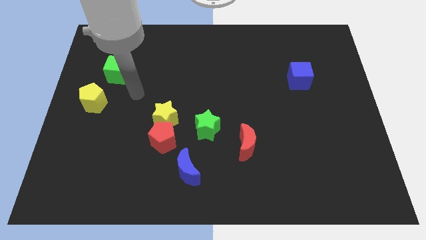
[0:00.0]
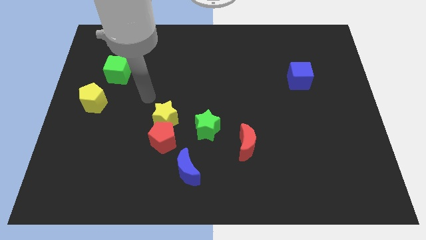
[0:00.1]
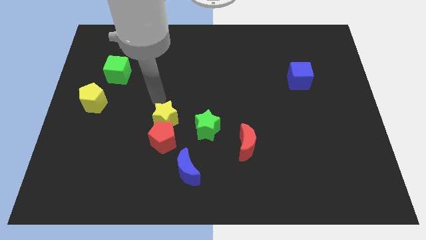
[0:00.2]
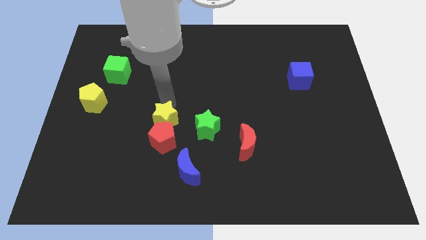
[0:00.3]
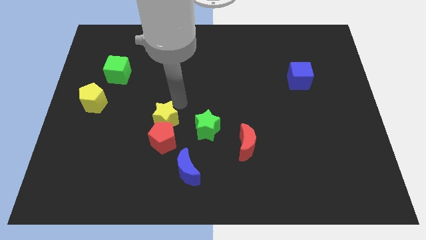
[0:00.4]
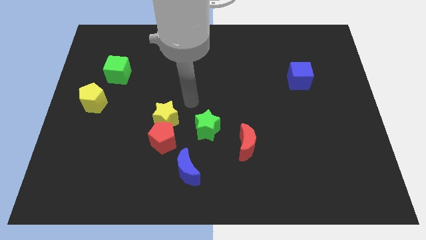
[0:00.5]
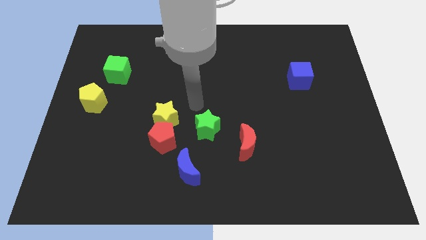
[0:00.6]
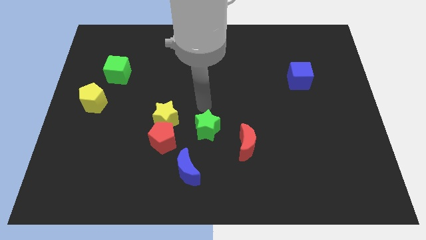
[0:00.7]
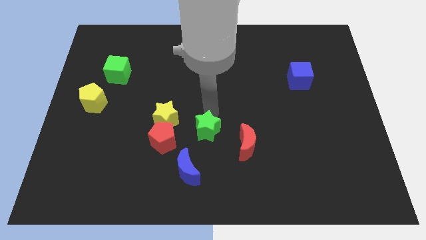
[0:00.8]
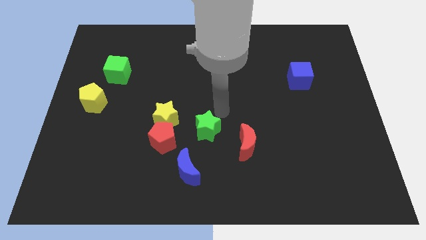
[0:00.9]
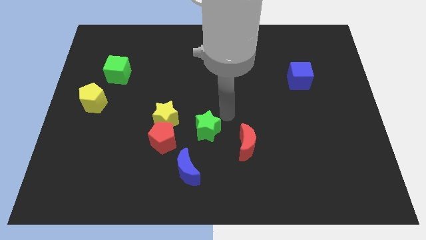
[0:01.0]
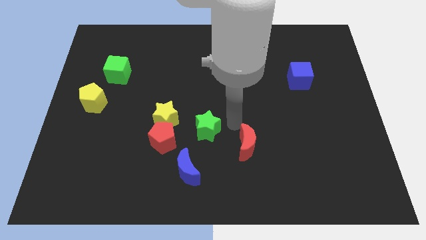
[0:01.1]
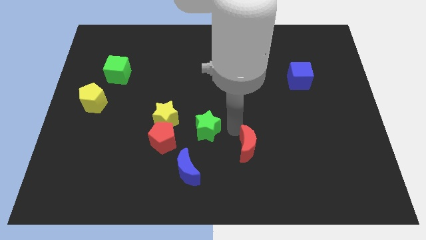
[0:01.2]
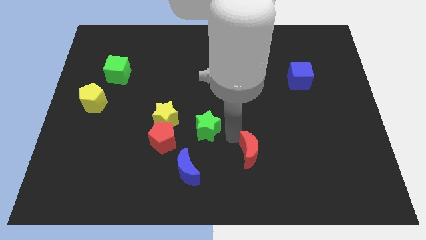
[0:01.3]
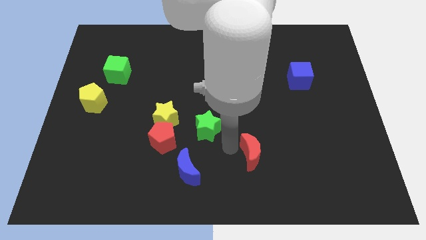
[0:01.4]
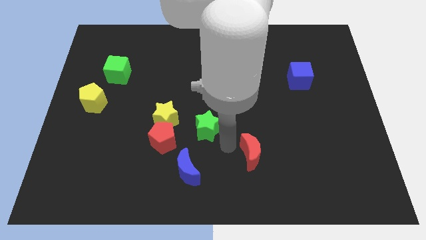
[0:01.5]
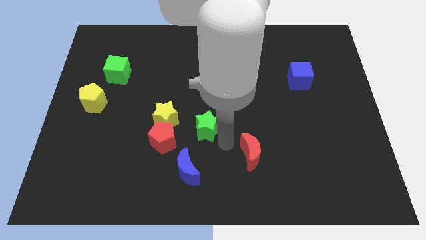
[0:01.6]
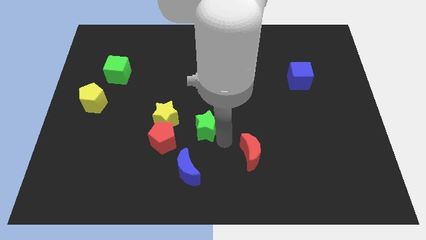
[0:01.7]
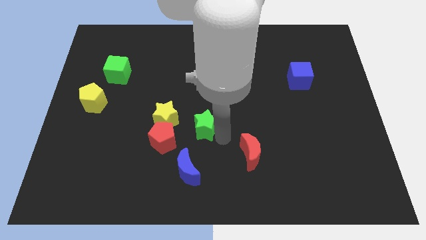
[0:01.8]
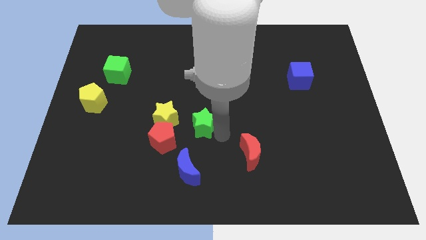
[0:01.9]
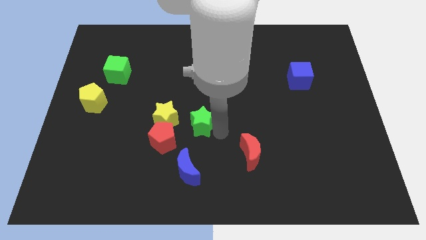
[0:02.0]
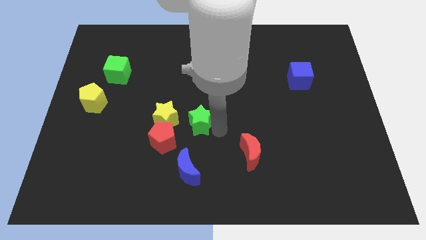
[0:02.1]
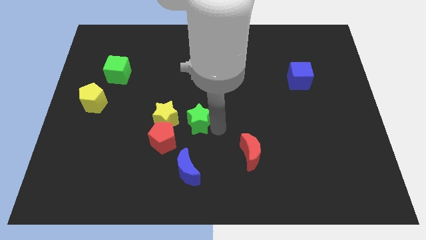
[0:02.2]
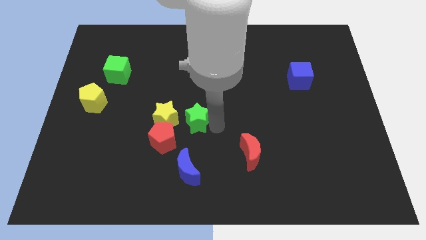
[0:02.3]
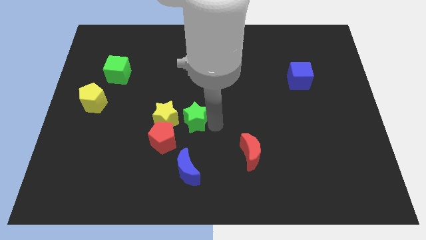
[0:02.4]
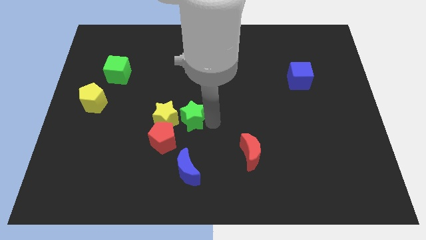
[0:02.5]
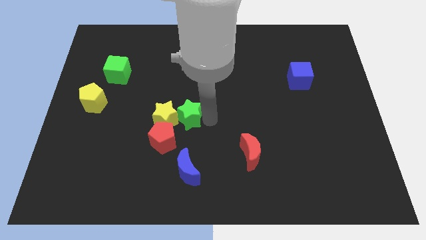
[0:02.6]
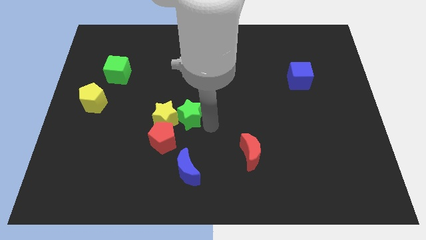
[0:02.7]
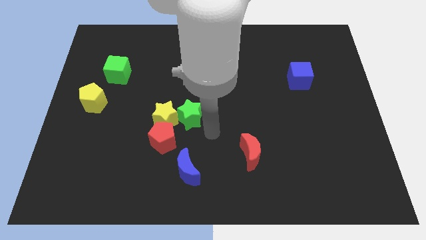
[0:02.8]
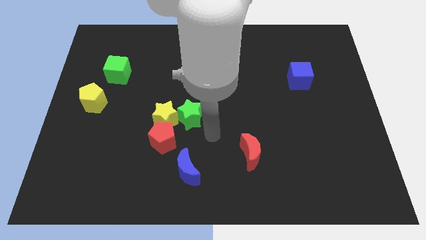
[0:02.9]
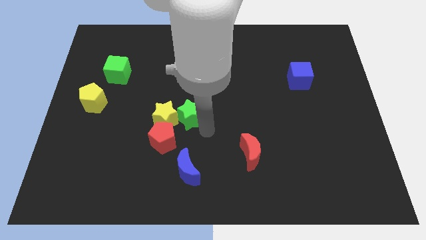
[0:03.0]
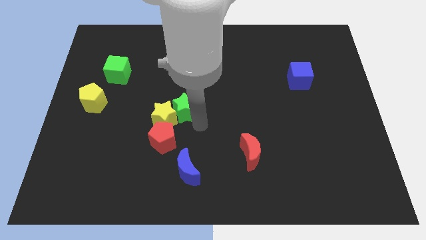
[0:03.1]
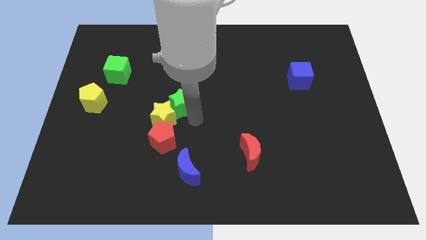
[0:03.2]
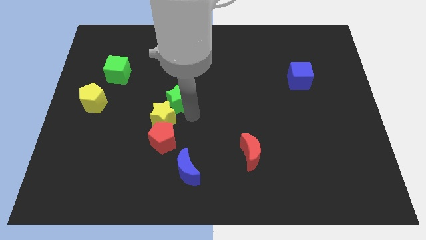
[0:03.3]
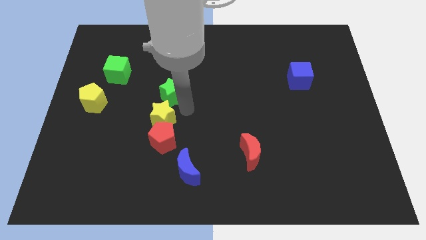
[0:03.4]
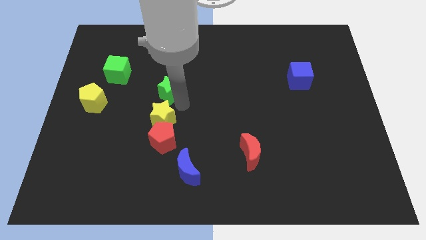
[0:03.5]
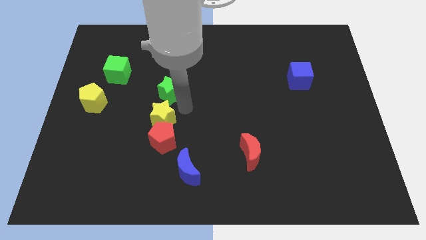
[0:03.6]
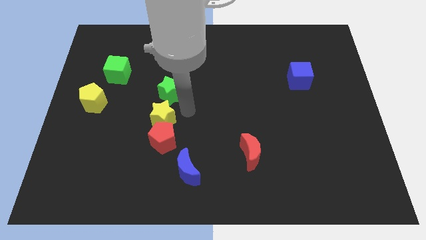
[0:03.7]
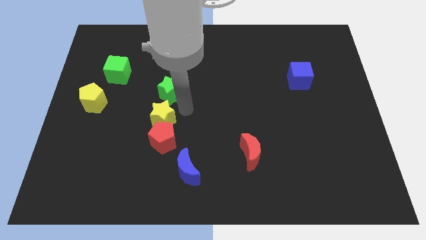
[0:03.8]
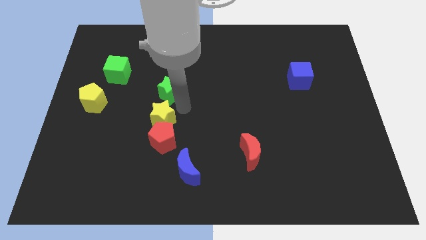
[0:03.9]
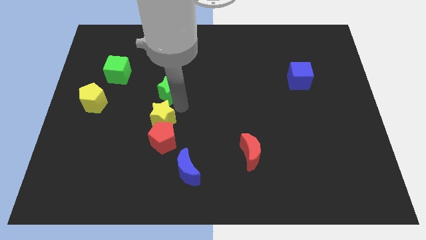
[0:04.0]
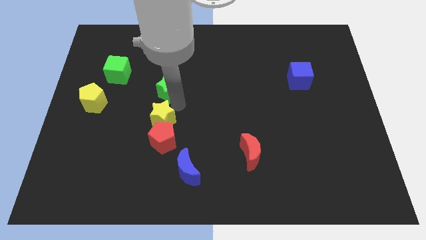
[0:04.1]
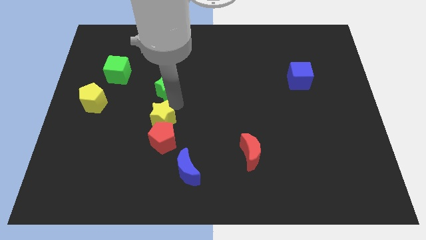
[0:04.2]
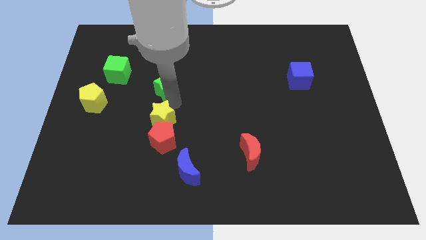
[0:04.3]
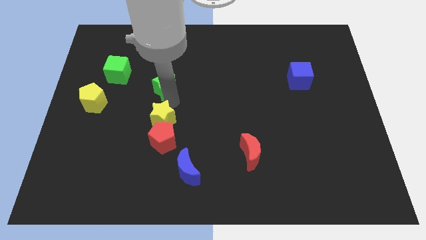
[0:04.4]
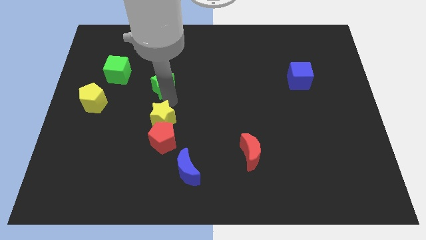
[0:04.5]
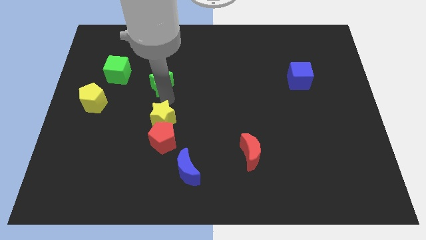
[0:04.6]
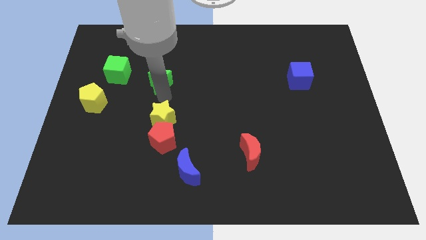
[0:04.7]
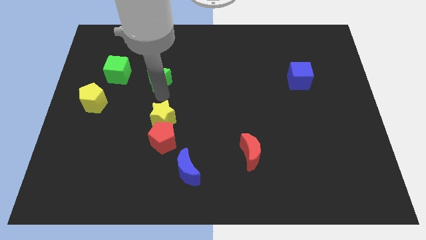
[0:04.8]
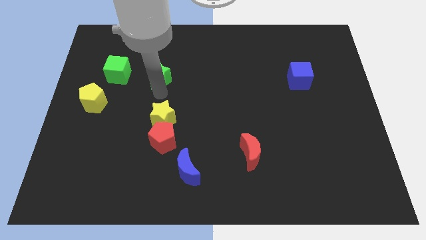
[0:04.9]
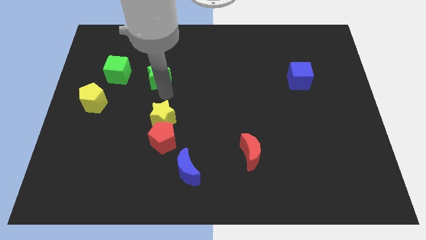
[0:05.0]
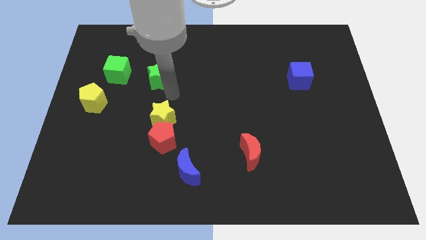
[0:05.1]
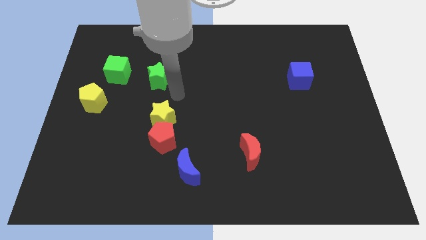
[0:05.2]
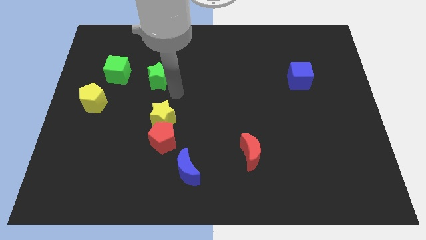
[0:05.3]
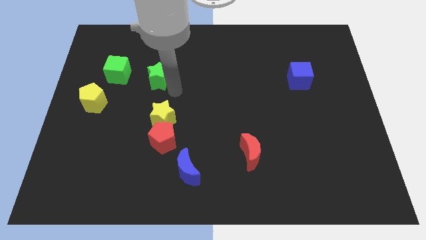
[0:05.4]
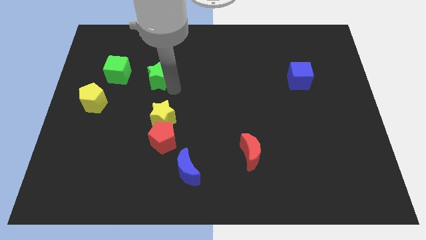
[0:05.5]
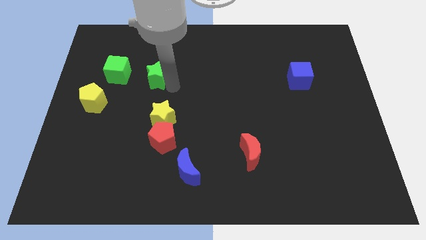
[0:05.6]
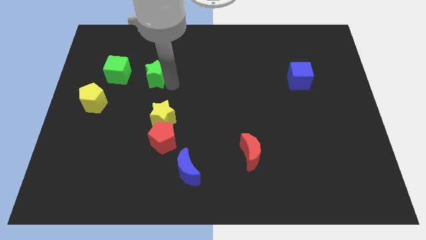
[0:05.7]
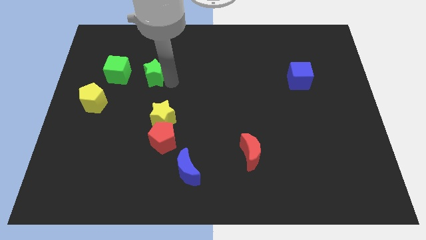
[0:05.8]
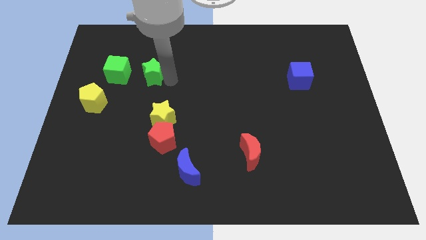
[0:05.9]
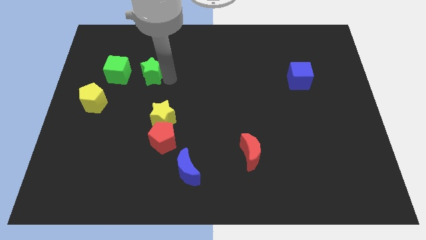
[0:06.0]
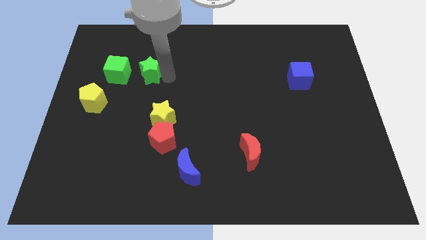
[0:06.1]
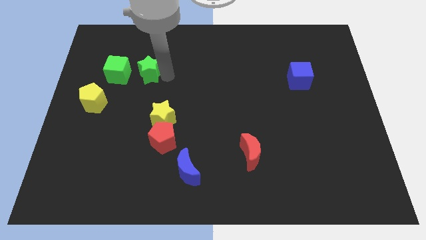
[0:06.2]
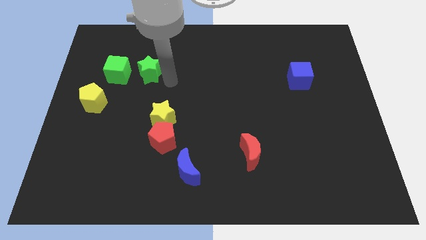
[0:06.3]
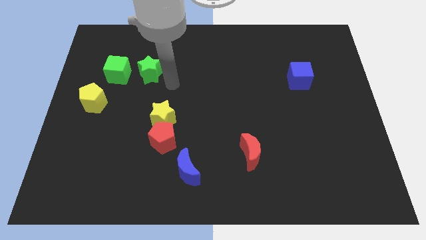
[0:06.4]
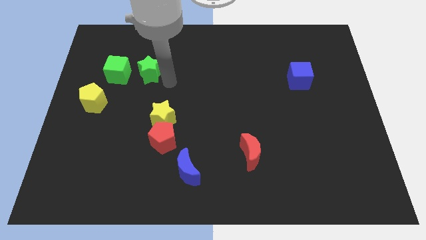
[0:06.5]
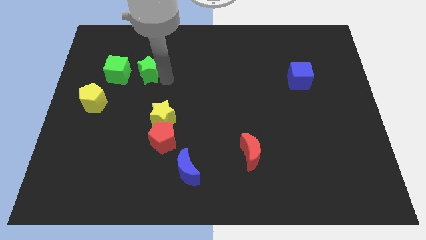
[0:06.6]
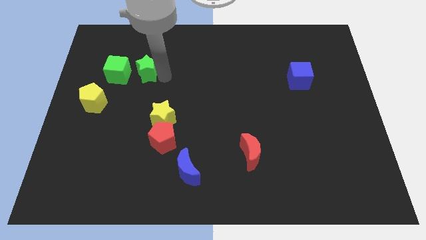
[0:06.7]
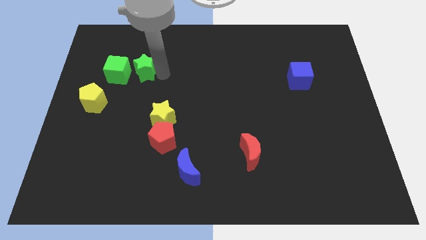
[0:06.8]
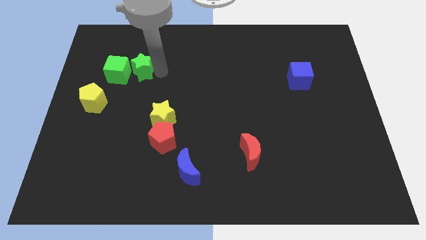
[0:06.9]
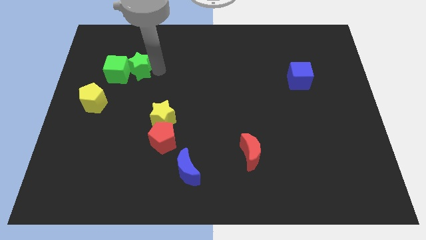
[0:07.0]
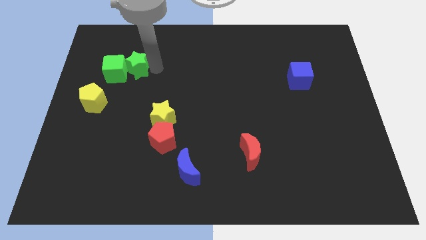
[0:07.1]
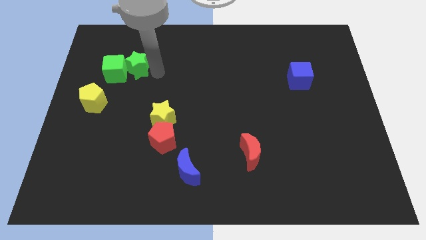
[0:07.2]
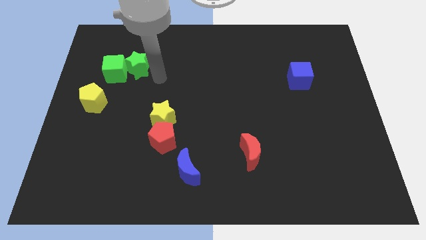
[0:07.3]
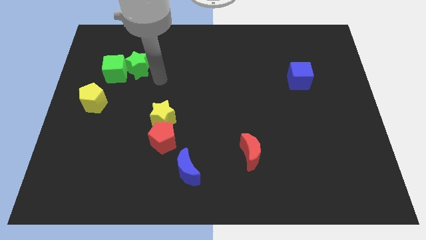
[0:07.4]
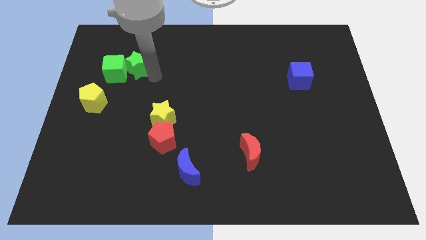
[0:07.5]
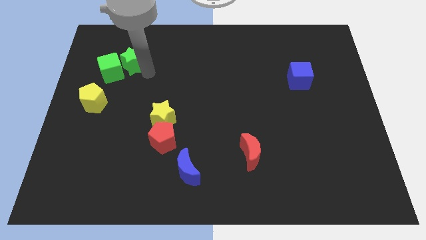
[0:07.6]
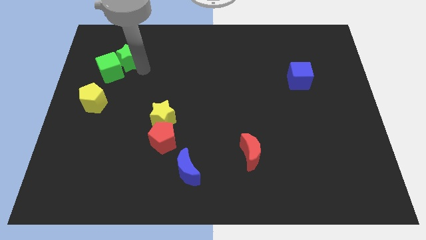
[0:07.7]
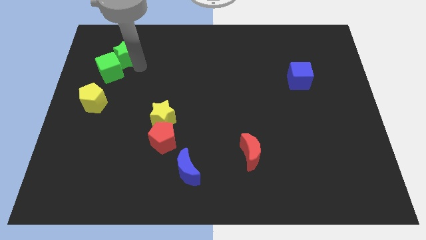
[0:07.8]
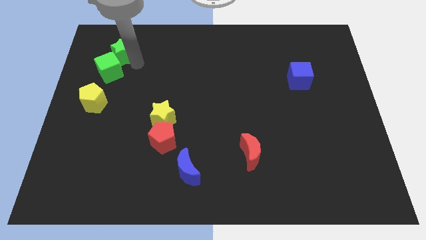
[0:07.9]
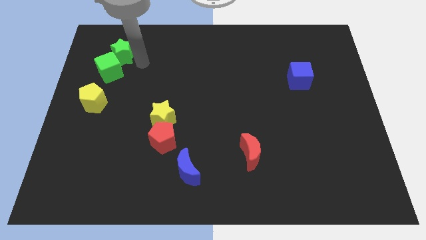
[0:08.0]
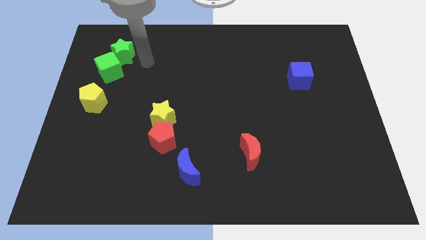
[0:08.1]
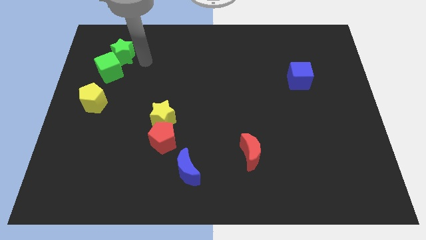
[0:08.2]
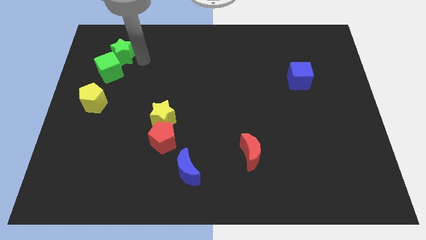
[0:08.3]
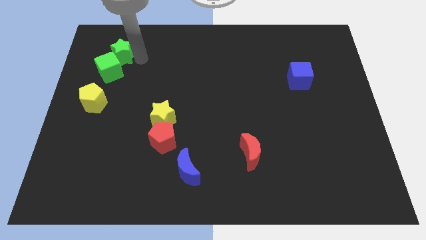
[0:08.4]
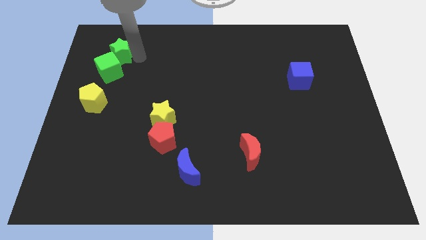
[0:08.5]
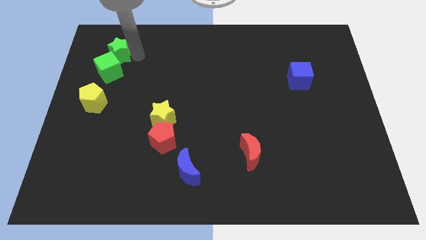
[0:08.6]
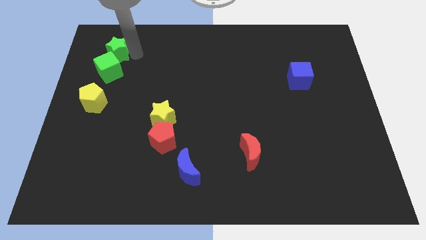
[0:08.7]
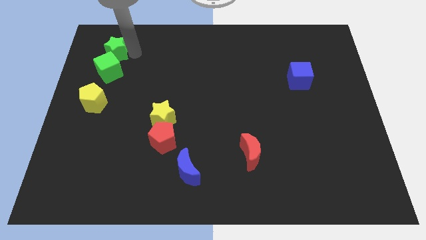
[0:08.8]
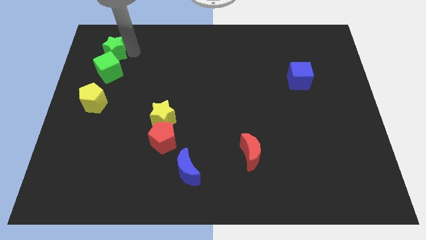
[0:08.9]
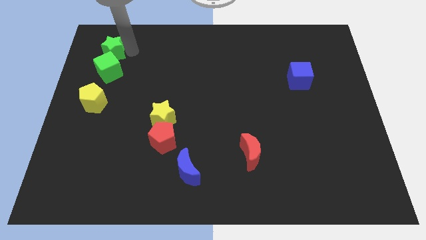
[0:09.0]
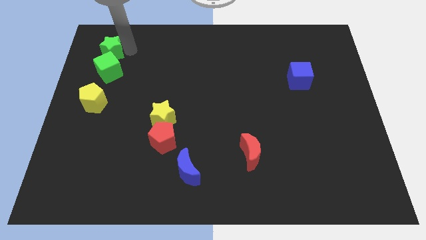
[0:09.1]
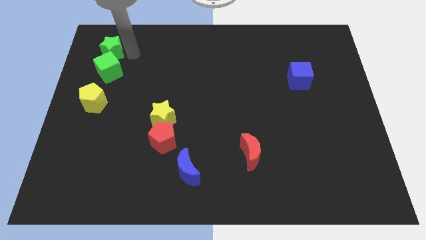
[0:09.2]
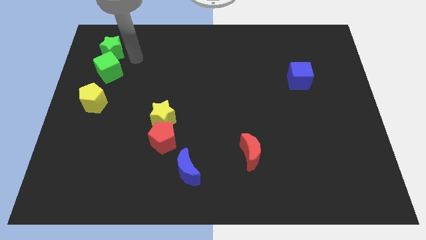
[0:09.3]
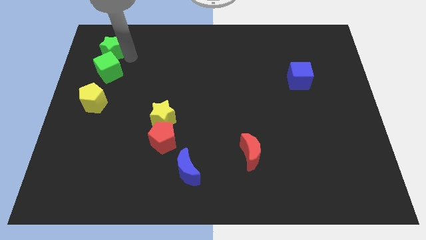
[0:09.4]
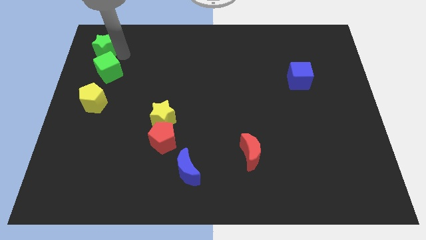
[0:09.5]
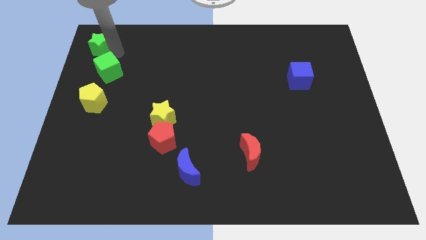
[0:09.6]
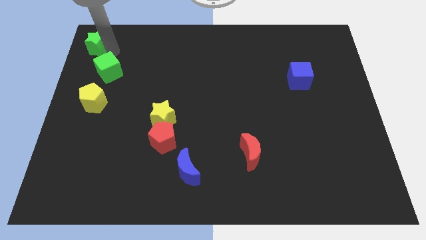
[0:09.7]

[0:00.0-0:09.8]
put the green star to the top left corner
